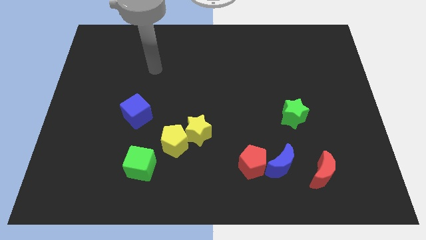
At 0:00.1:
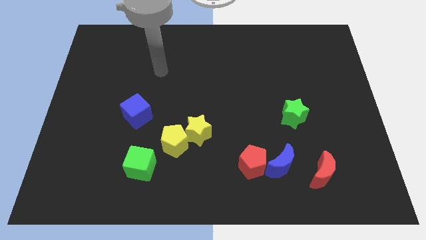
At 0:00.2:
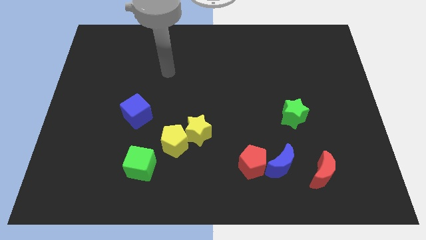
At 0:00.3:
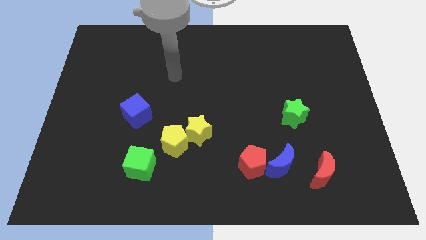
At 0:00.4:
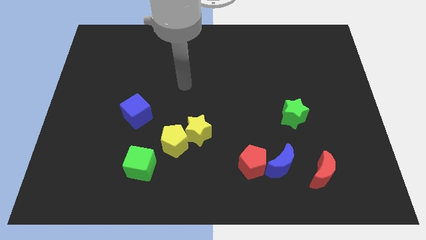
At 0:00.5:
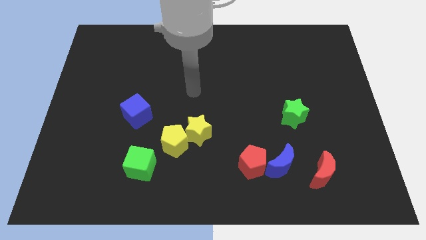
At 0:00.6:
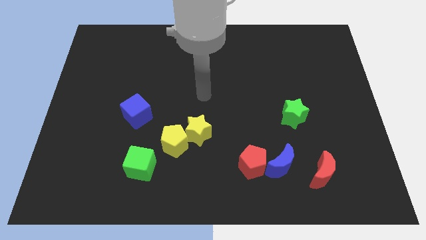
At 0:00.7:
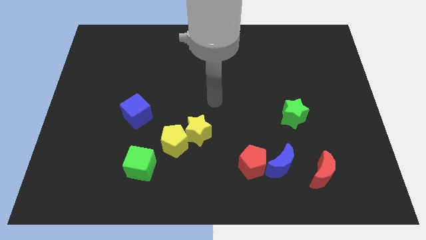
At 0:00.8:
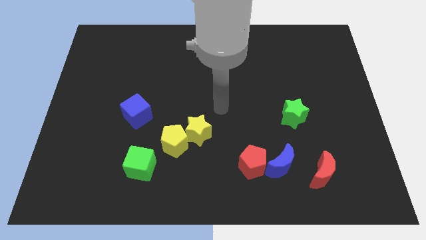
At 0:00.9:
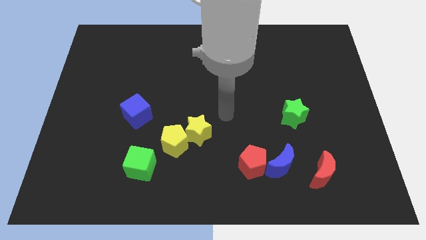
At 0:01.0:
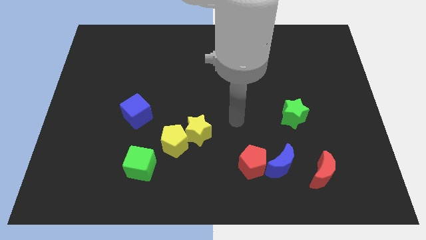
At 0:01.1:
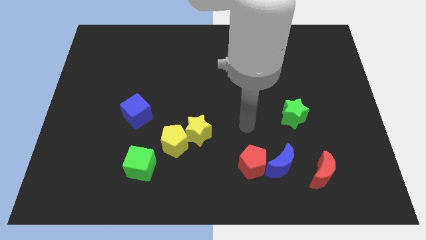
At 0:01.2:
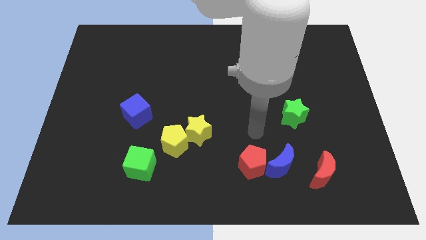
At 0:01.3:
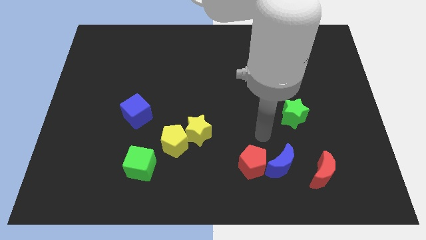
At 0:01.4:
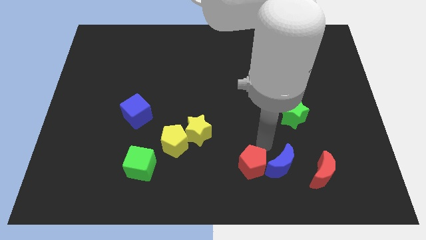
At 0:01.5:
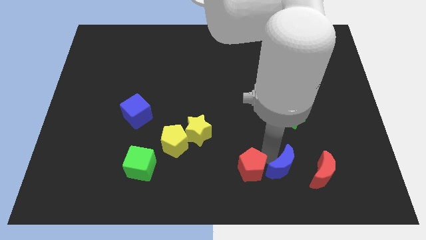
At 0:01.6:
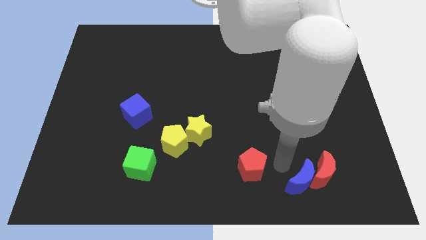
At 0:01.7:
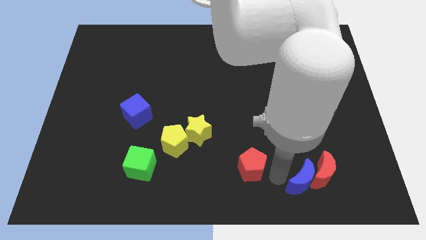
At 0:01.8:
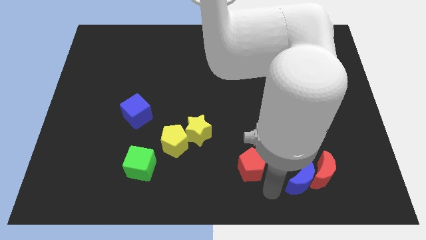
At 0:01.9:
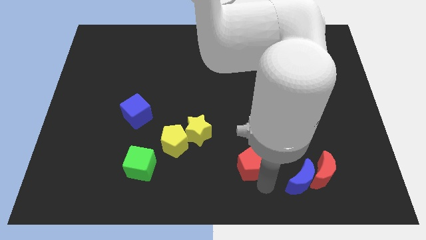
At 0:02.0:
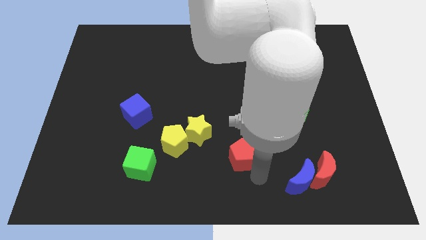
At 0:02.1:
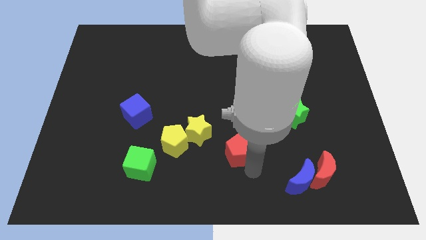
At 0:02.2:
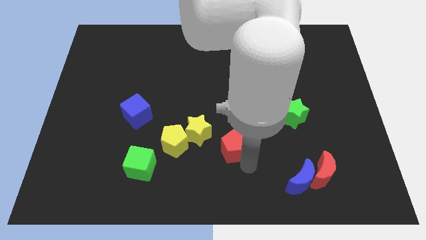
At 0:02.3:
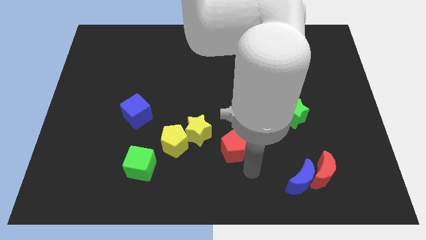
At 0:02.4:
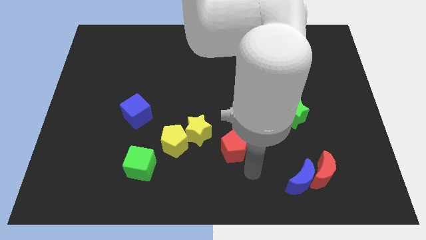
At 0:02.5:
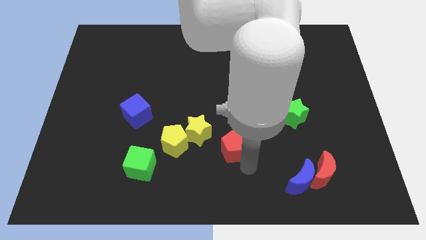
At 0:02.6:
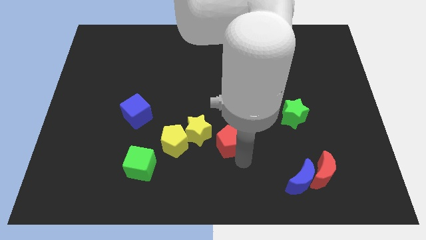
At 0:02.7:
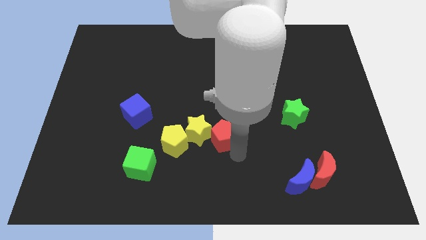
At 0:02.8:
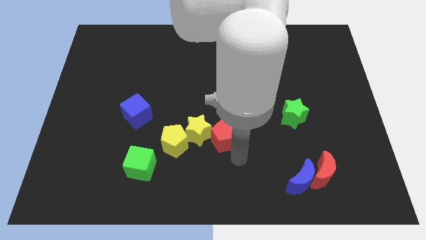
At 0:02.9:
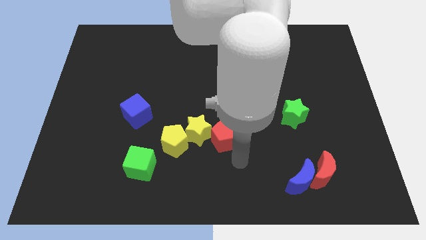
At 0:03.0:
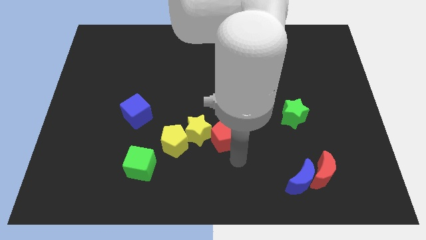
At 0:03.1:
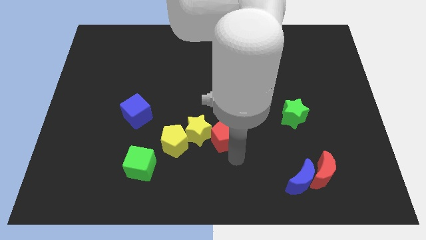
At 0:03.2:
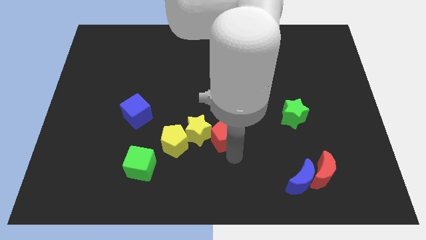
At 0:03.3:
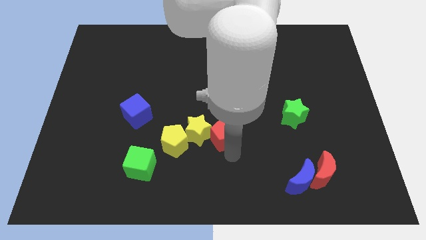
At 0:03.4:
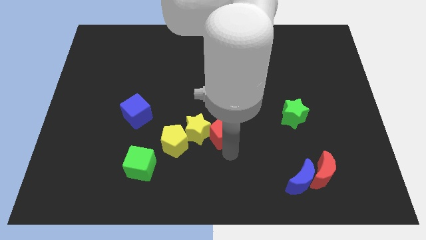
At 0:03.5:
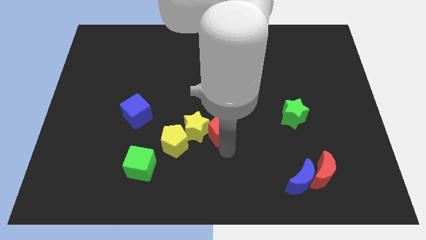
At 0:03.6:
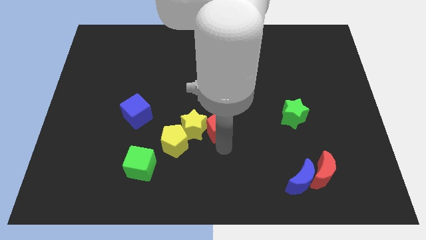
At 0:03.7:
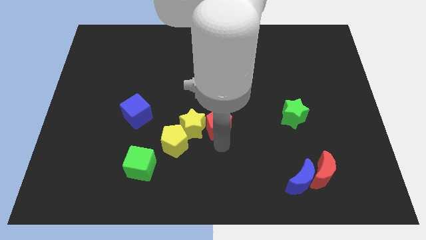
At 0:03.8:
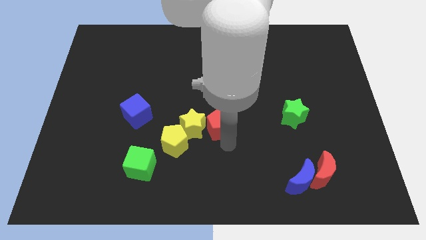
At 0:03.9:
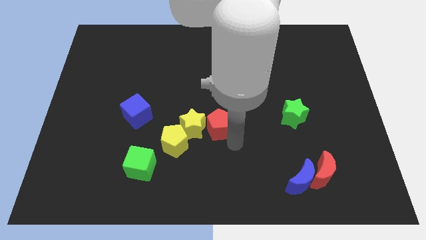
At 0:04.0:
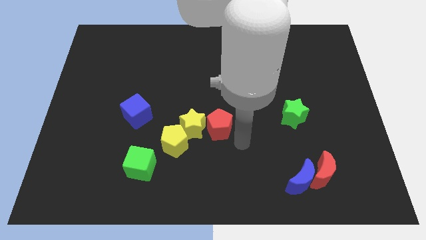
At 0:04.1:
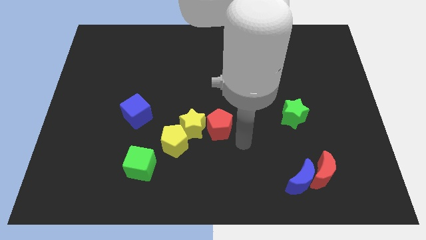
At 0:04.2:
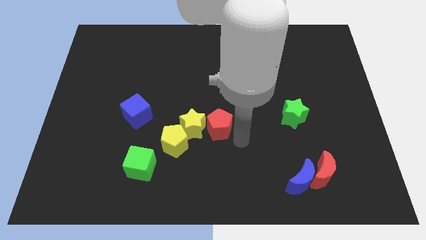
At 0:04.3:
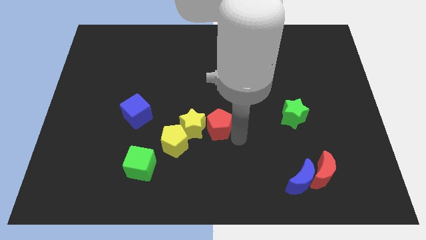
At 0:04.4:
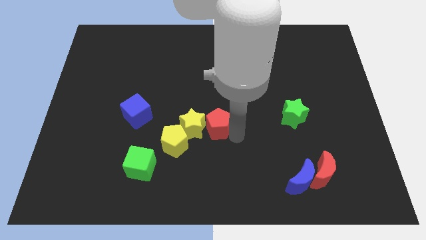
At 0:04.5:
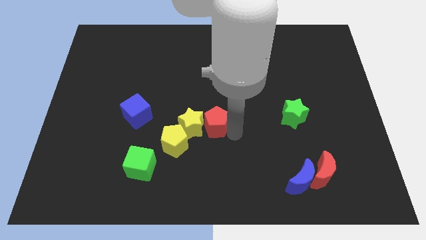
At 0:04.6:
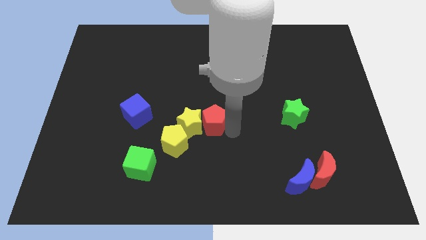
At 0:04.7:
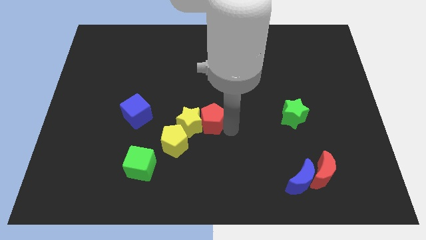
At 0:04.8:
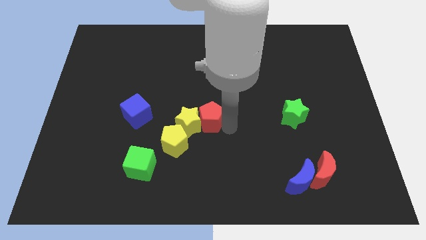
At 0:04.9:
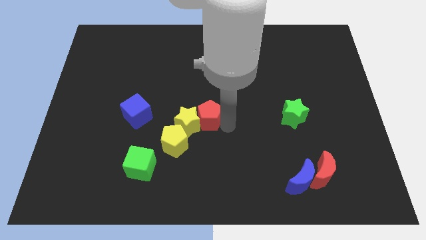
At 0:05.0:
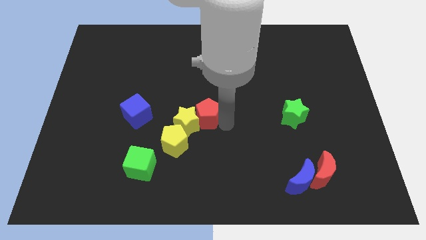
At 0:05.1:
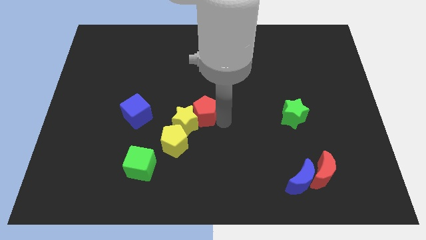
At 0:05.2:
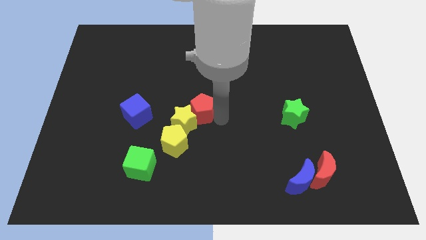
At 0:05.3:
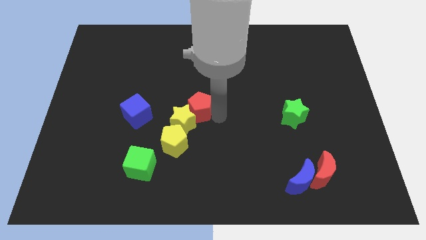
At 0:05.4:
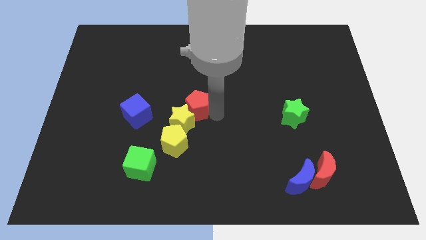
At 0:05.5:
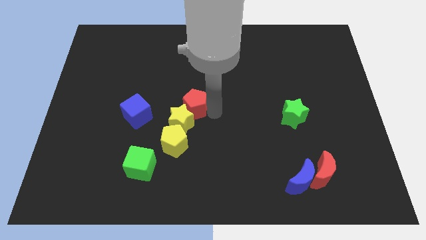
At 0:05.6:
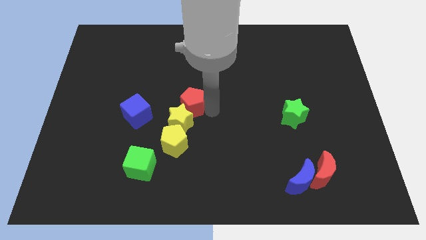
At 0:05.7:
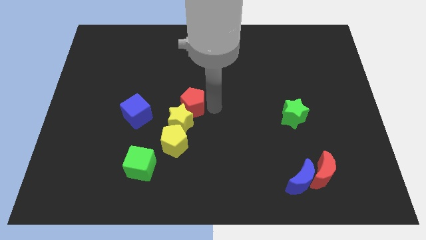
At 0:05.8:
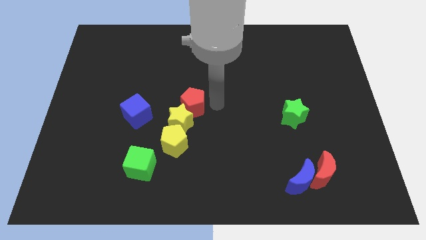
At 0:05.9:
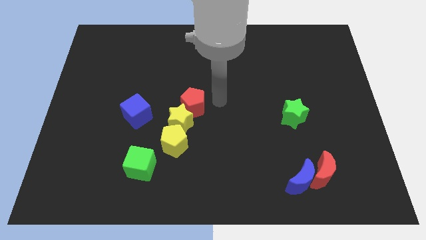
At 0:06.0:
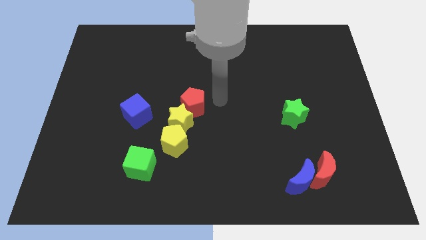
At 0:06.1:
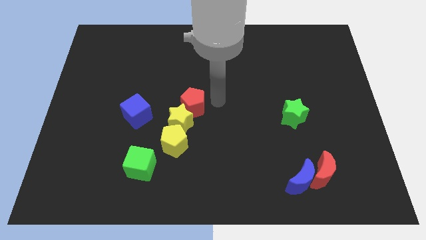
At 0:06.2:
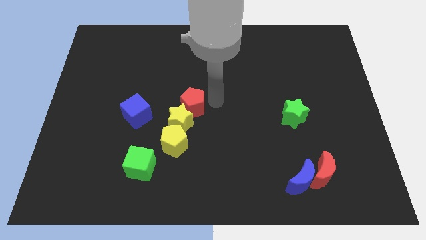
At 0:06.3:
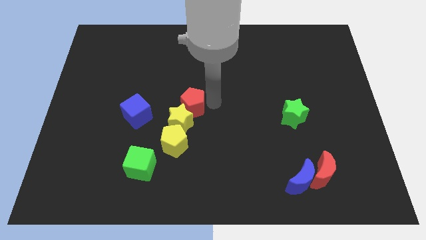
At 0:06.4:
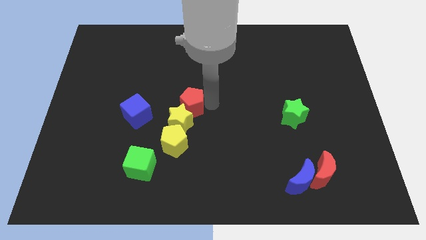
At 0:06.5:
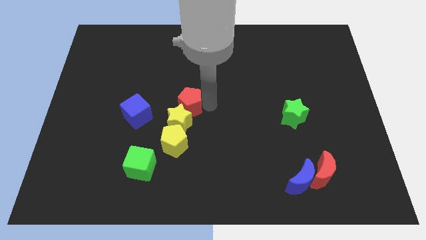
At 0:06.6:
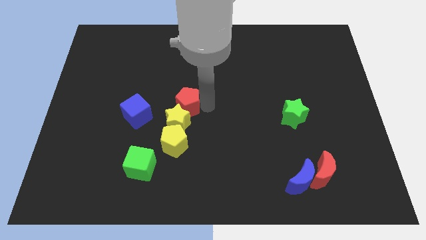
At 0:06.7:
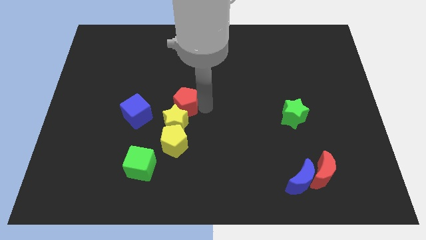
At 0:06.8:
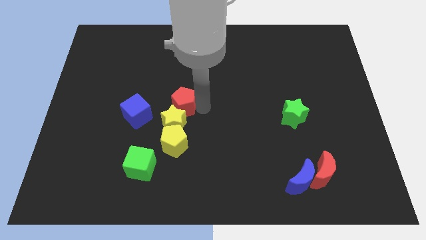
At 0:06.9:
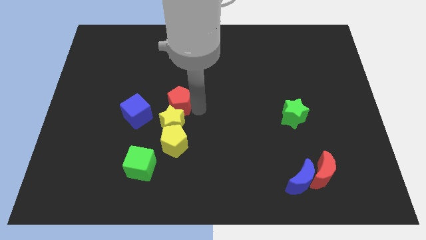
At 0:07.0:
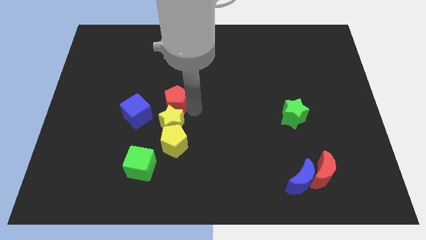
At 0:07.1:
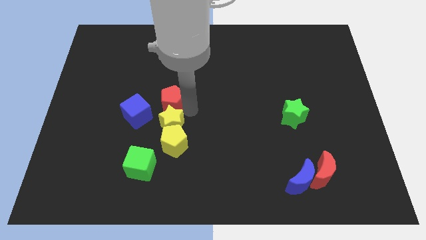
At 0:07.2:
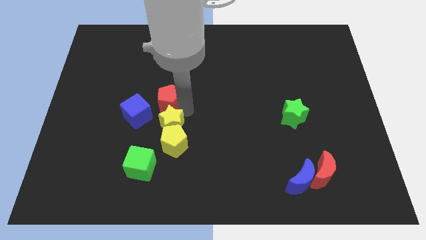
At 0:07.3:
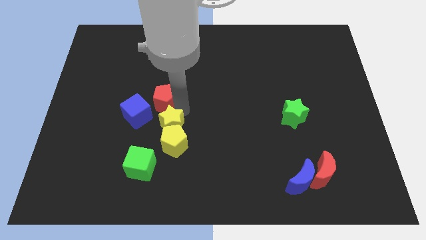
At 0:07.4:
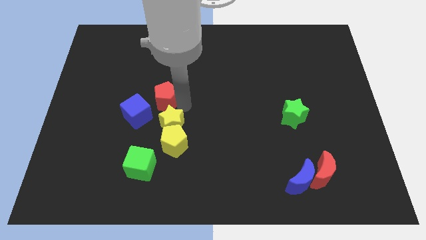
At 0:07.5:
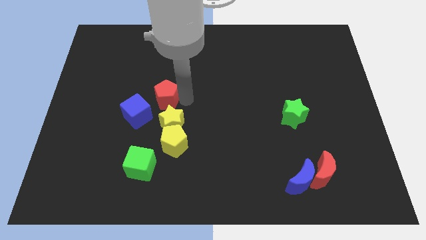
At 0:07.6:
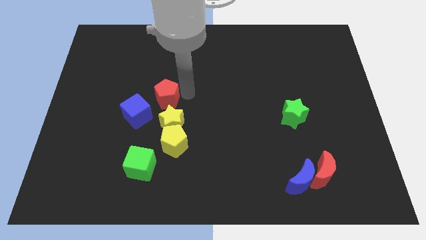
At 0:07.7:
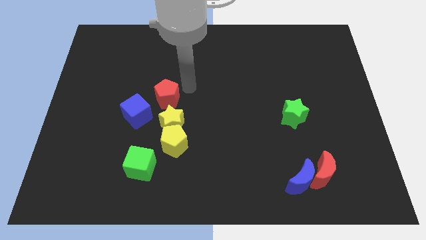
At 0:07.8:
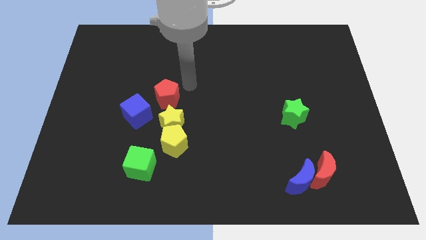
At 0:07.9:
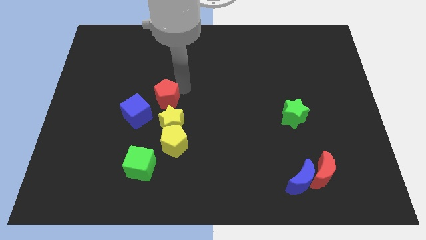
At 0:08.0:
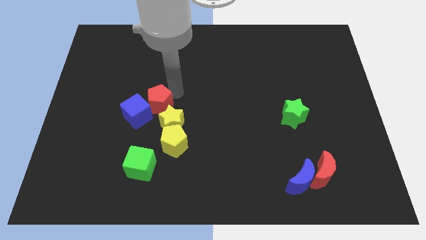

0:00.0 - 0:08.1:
slide the red pentagon close to the blue cube
